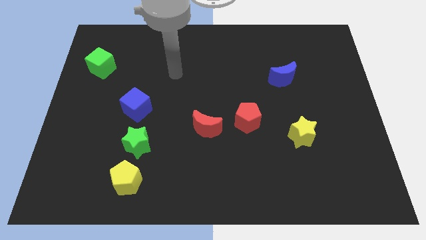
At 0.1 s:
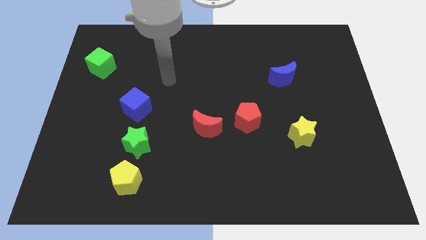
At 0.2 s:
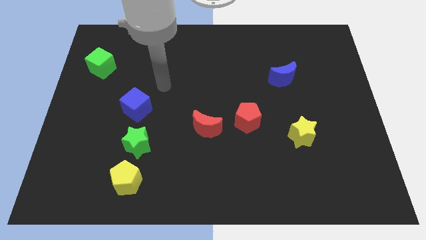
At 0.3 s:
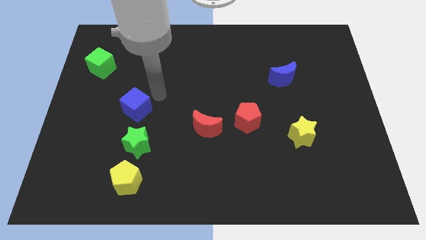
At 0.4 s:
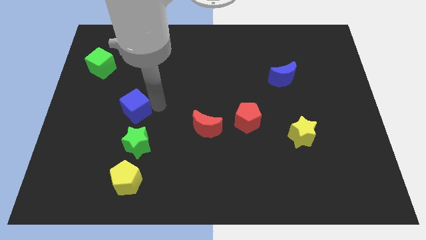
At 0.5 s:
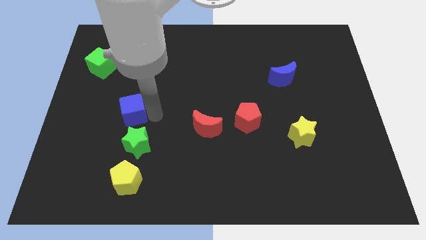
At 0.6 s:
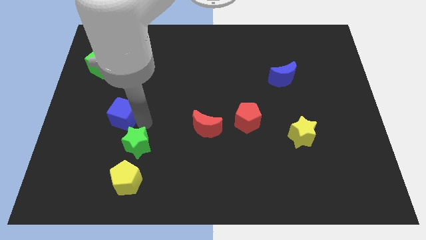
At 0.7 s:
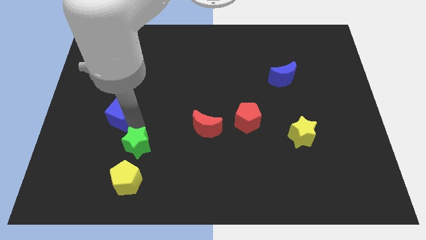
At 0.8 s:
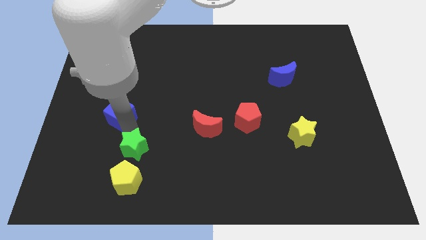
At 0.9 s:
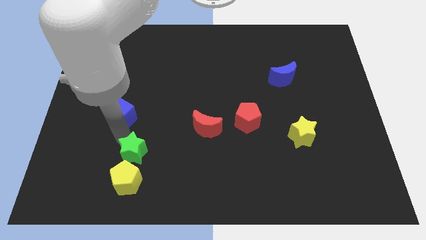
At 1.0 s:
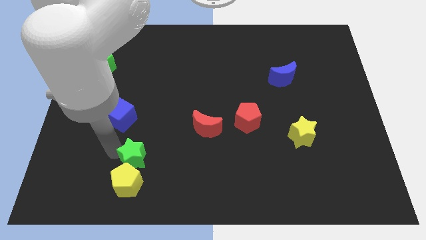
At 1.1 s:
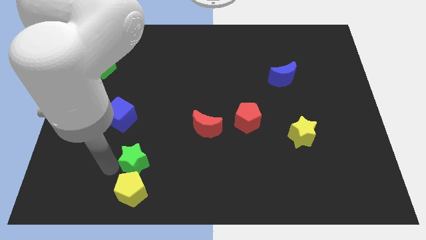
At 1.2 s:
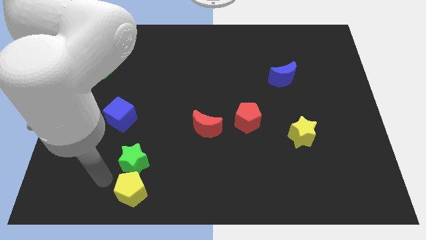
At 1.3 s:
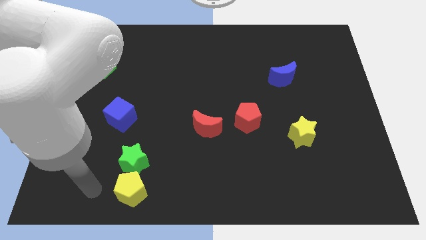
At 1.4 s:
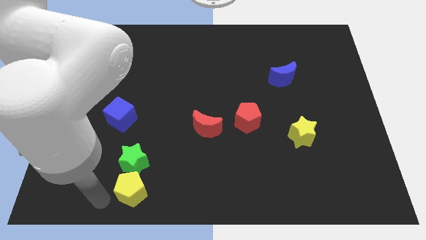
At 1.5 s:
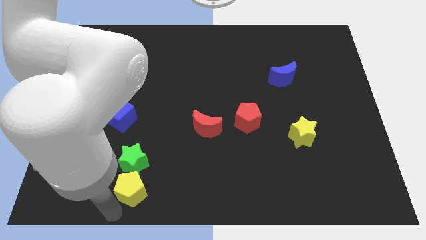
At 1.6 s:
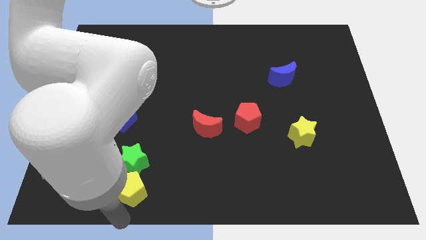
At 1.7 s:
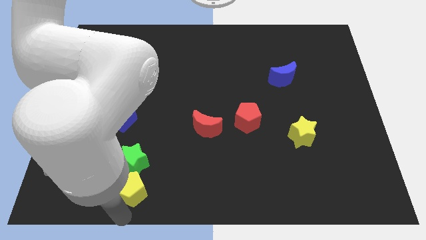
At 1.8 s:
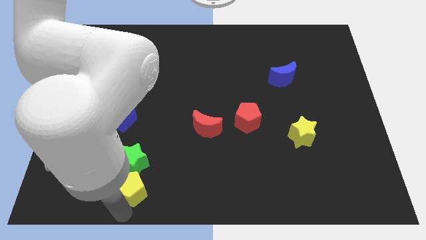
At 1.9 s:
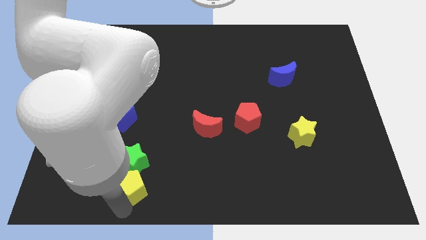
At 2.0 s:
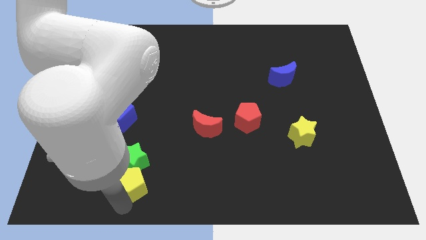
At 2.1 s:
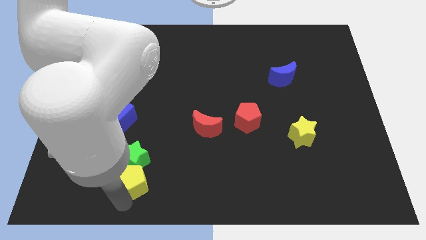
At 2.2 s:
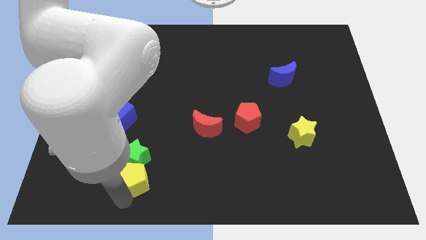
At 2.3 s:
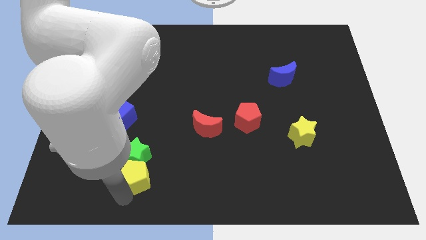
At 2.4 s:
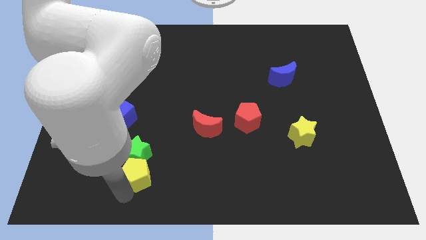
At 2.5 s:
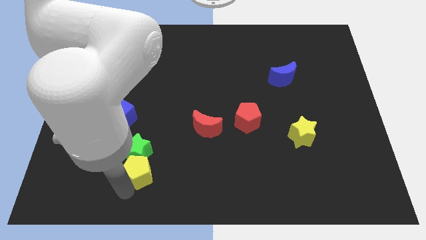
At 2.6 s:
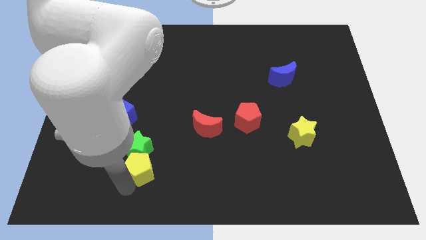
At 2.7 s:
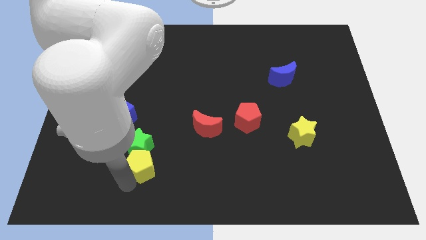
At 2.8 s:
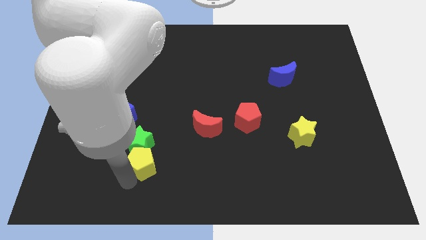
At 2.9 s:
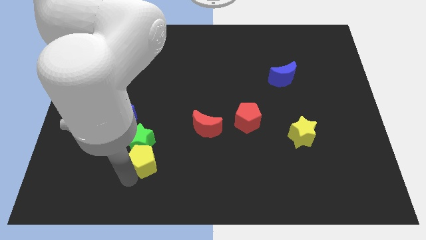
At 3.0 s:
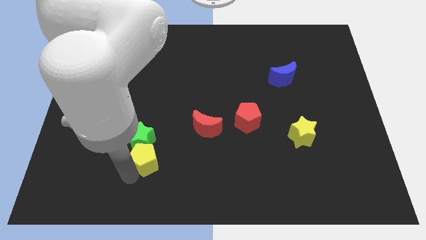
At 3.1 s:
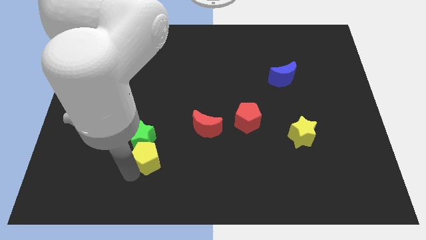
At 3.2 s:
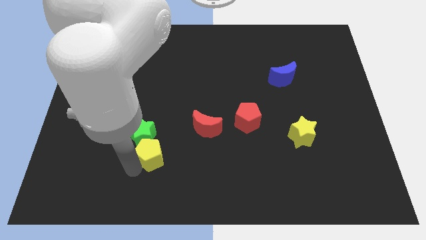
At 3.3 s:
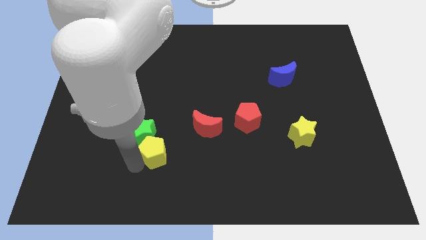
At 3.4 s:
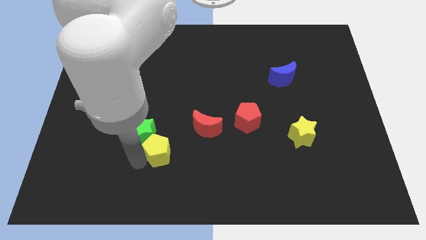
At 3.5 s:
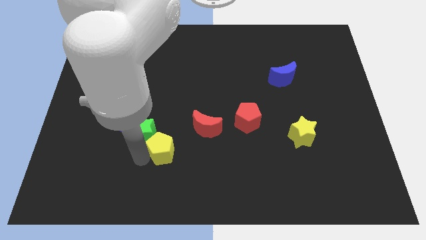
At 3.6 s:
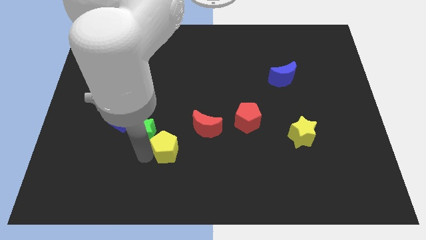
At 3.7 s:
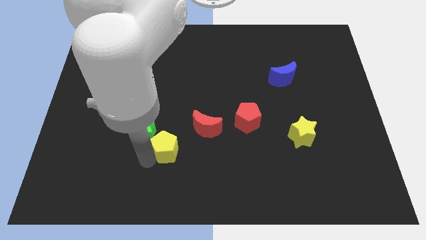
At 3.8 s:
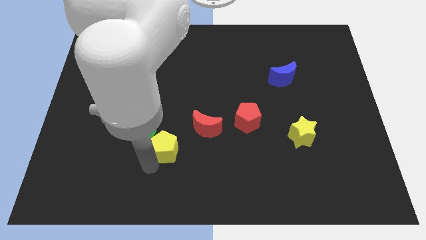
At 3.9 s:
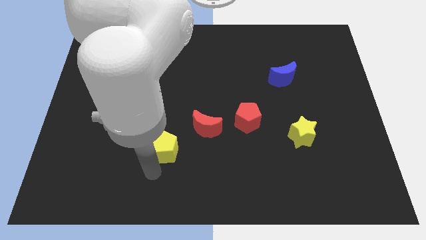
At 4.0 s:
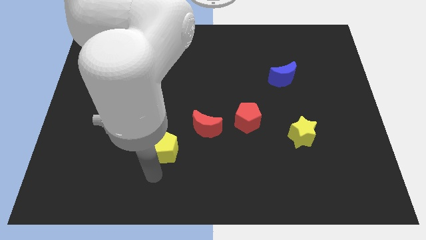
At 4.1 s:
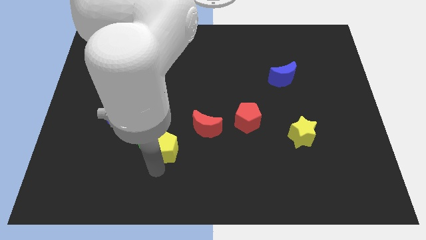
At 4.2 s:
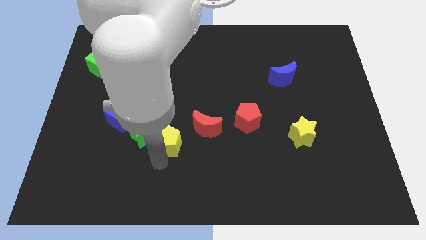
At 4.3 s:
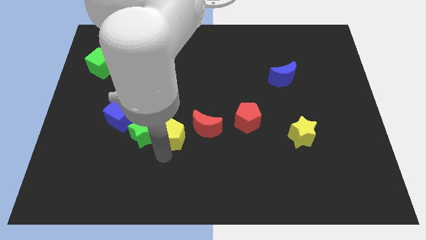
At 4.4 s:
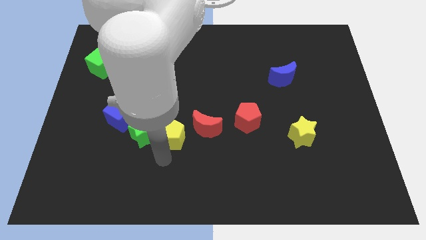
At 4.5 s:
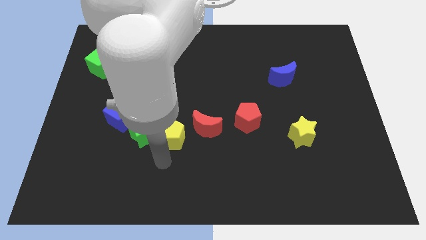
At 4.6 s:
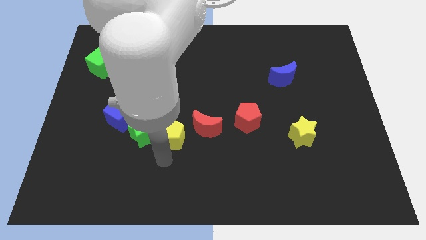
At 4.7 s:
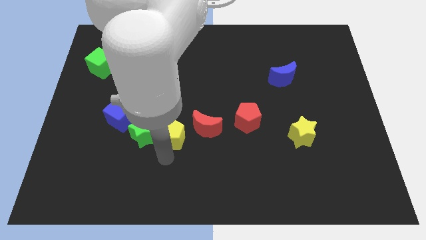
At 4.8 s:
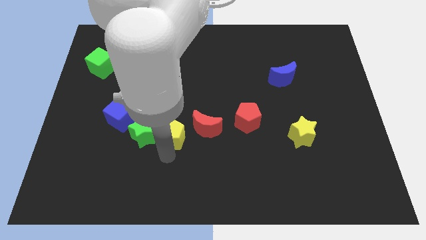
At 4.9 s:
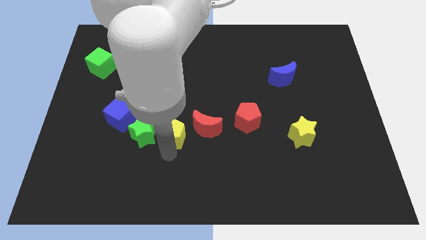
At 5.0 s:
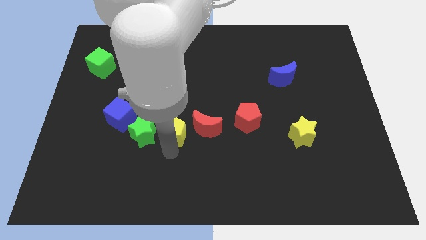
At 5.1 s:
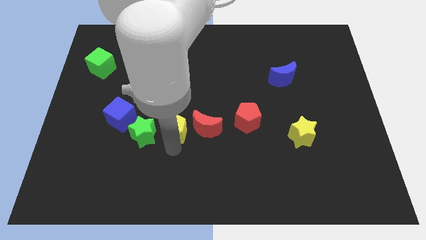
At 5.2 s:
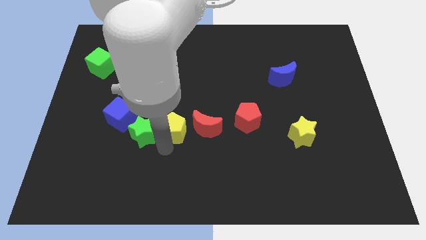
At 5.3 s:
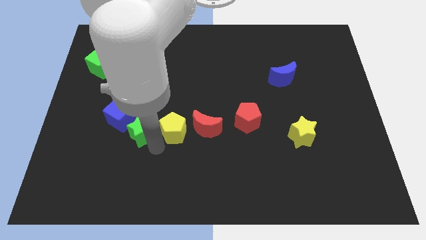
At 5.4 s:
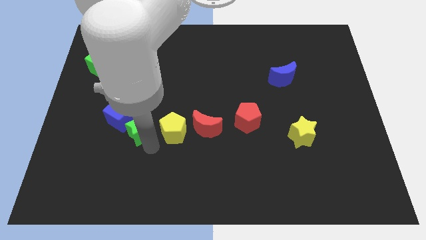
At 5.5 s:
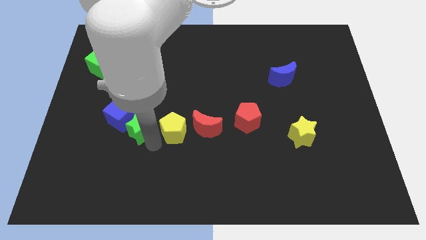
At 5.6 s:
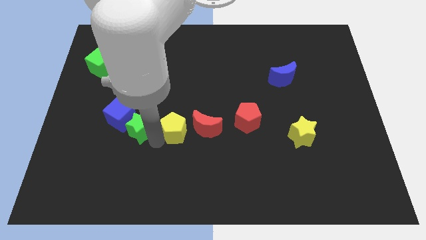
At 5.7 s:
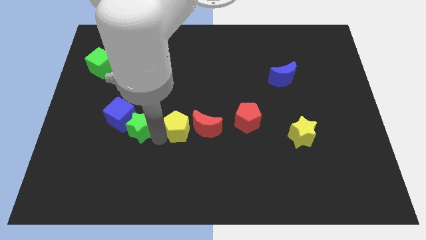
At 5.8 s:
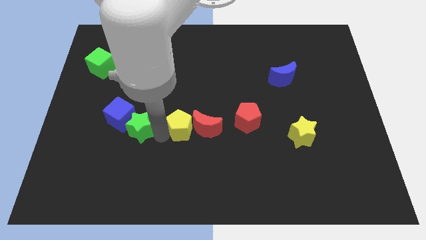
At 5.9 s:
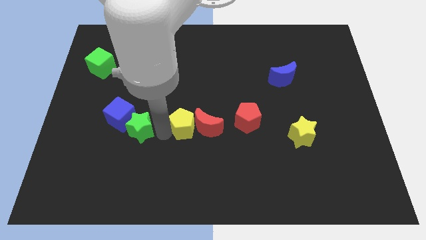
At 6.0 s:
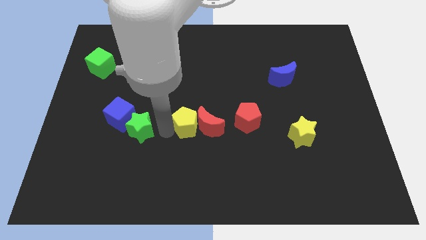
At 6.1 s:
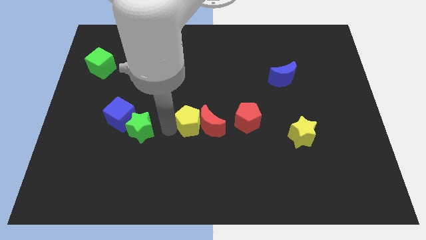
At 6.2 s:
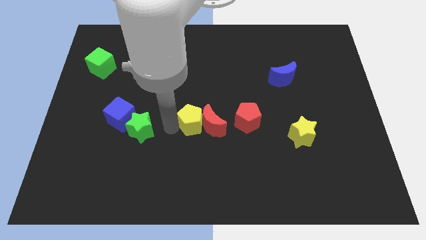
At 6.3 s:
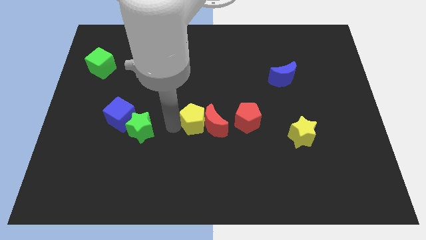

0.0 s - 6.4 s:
slide the yellow pentagon diagonally up and right

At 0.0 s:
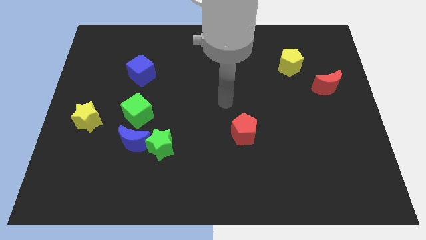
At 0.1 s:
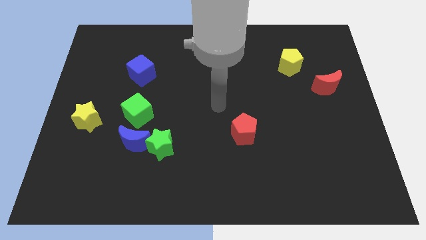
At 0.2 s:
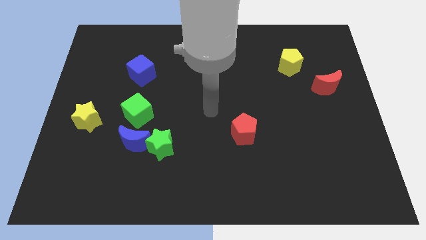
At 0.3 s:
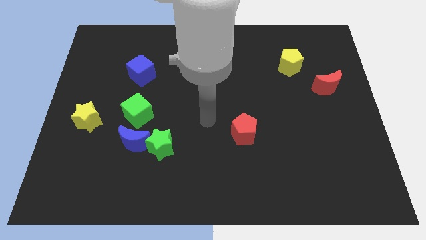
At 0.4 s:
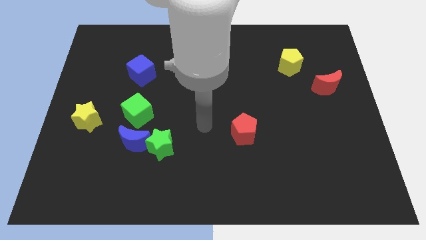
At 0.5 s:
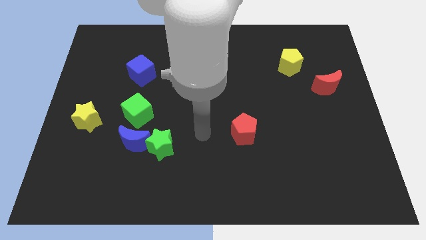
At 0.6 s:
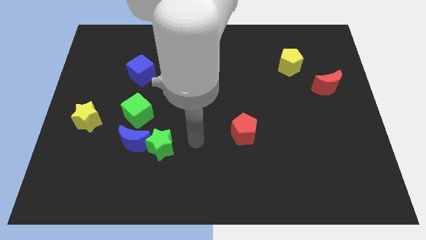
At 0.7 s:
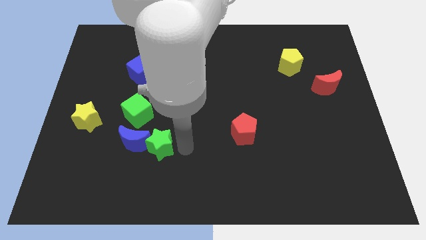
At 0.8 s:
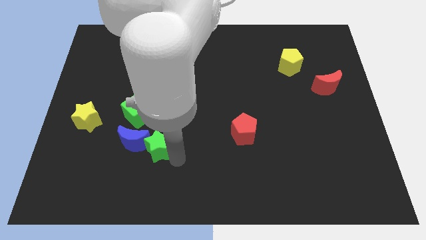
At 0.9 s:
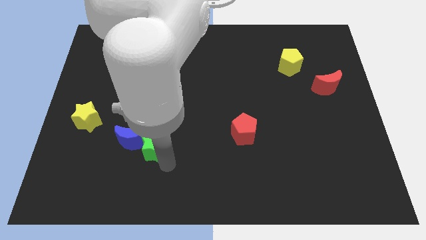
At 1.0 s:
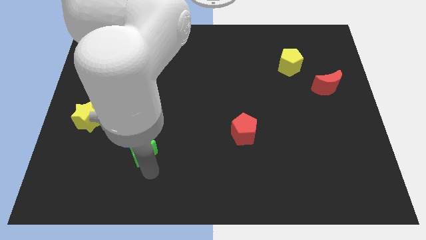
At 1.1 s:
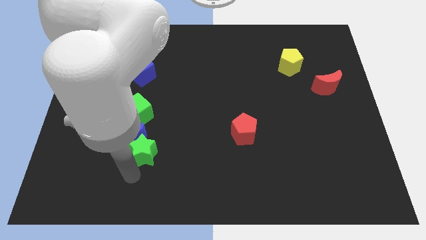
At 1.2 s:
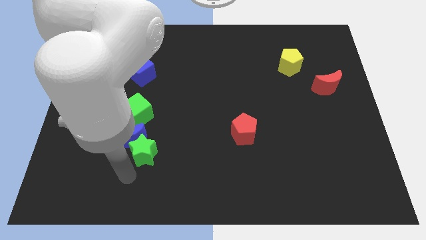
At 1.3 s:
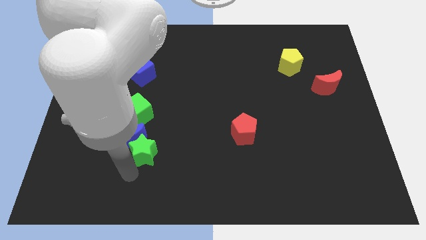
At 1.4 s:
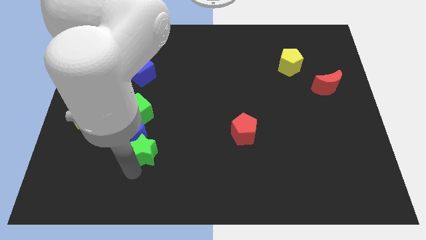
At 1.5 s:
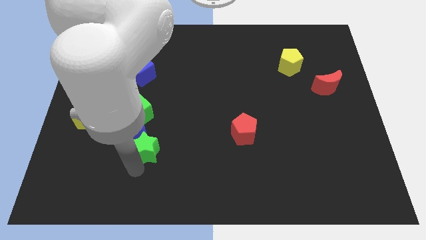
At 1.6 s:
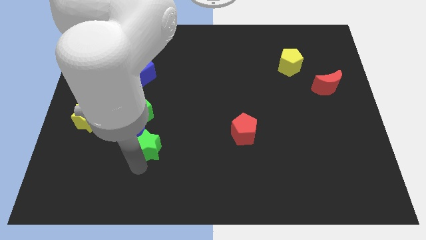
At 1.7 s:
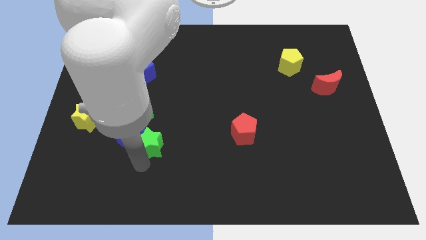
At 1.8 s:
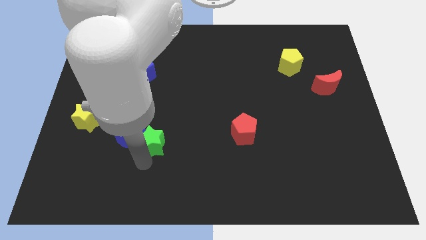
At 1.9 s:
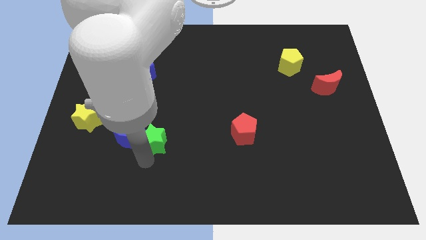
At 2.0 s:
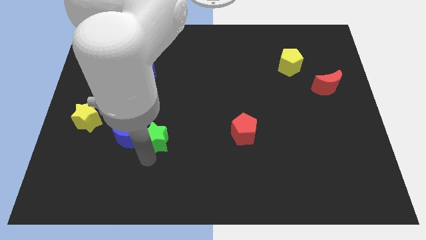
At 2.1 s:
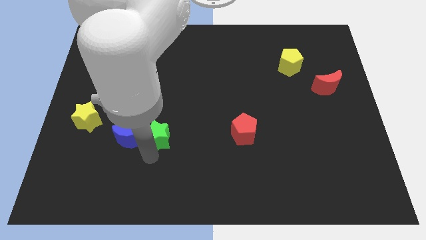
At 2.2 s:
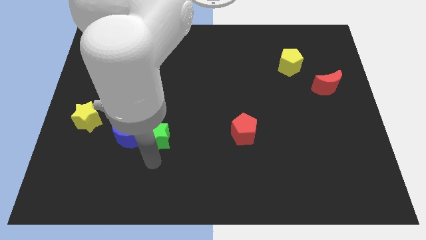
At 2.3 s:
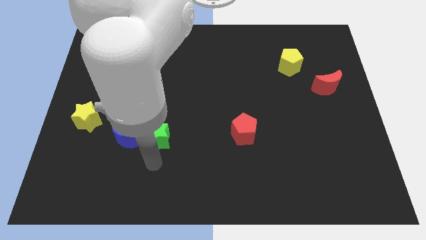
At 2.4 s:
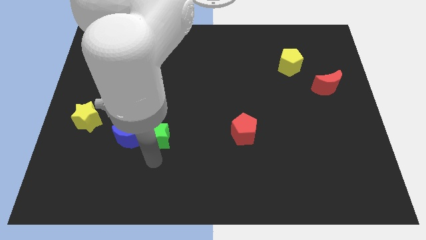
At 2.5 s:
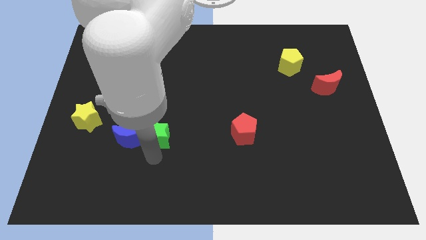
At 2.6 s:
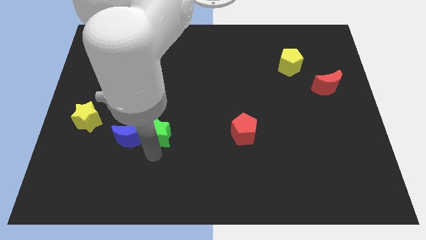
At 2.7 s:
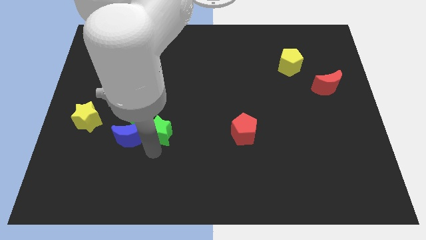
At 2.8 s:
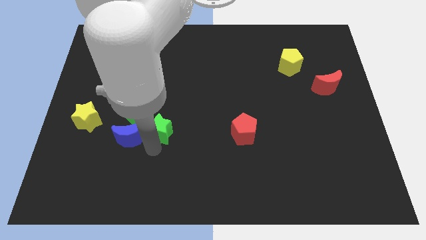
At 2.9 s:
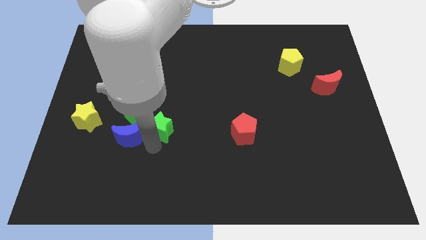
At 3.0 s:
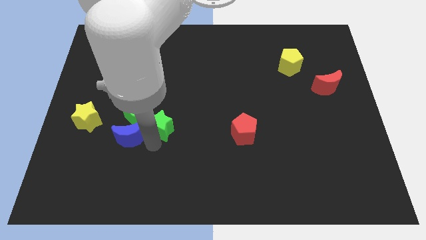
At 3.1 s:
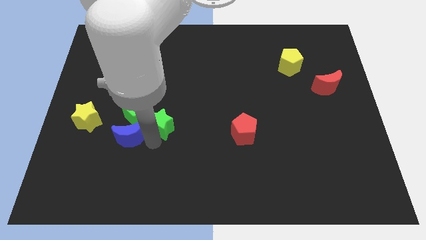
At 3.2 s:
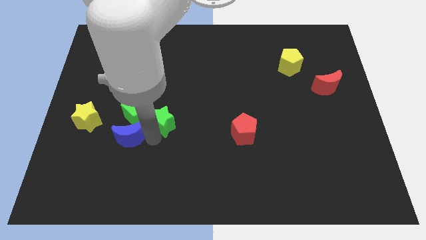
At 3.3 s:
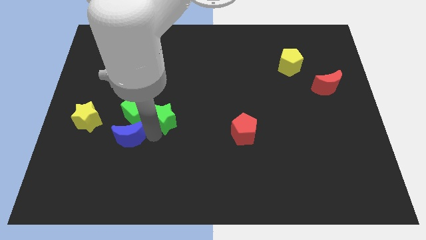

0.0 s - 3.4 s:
slide the green star upwards slightly
